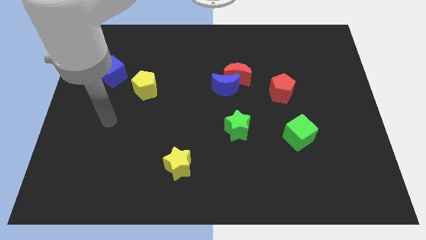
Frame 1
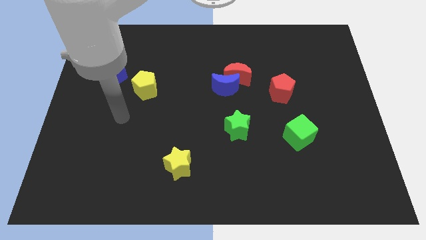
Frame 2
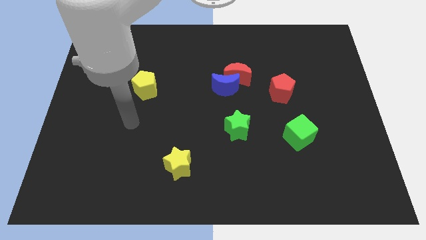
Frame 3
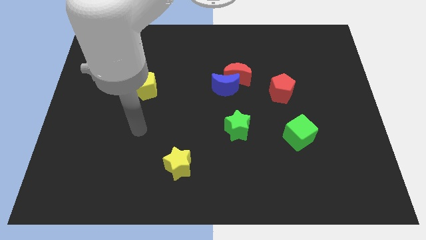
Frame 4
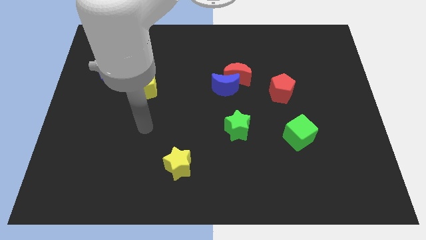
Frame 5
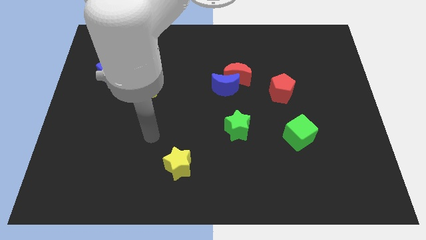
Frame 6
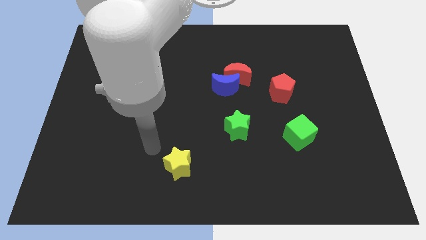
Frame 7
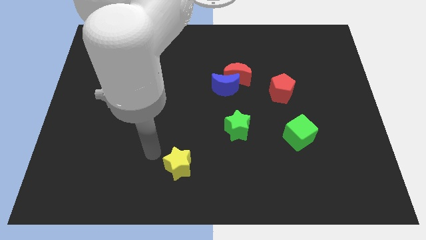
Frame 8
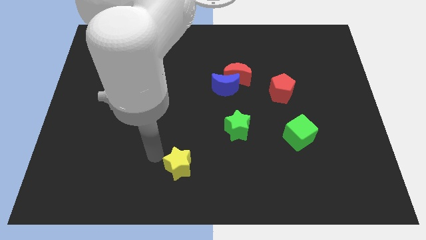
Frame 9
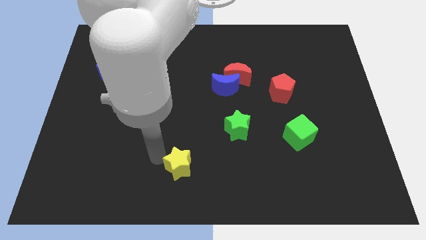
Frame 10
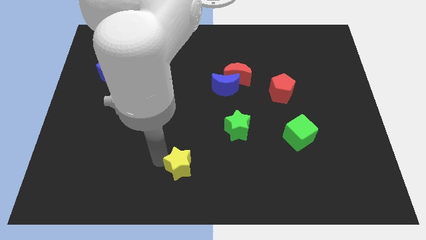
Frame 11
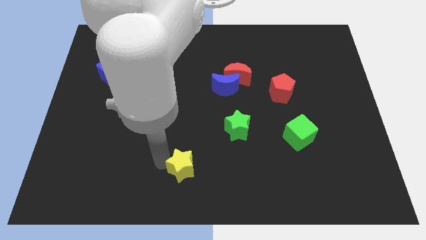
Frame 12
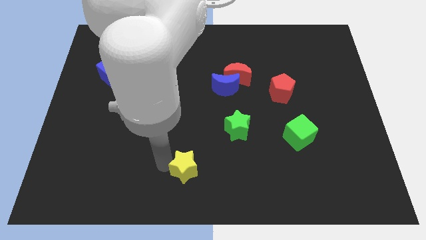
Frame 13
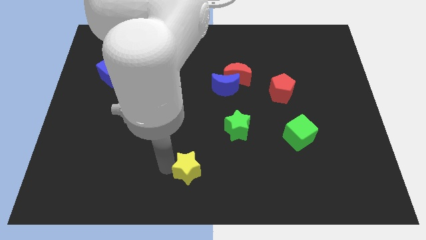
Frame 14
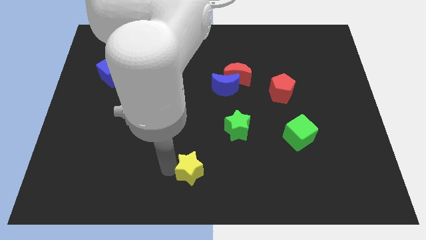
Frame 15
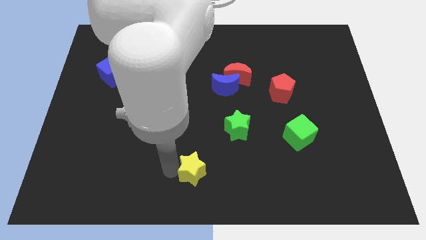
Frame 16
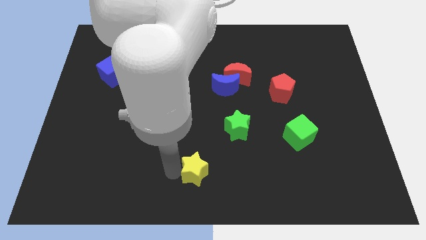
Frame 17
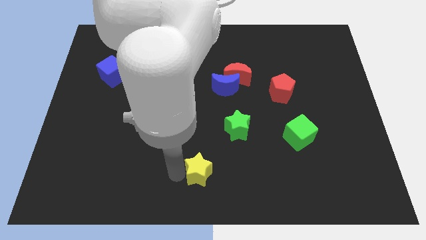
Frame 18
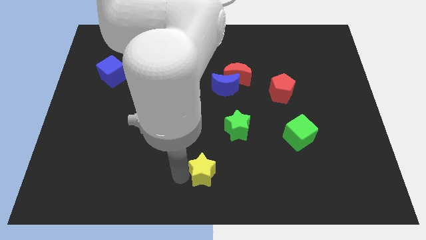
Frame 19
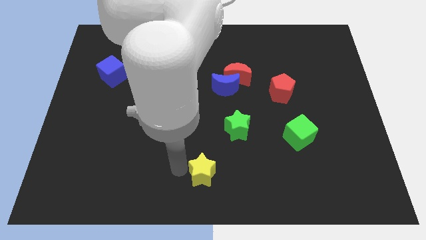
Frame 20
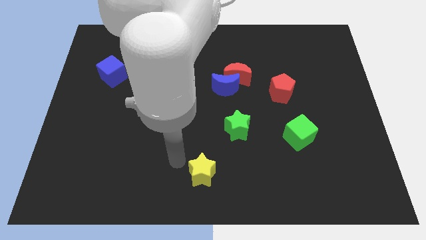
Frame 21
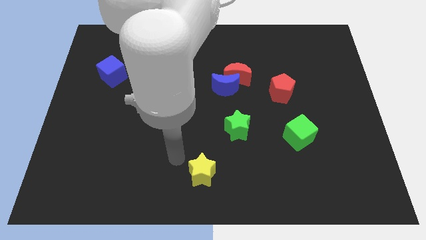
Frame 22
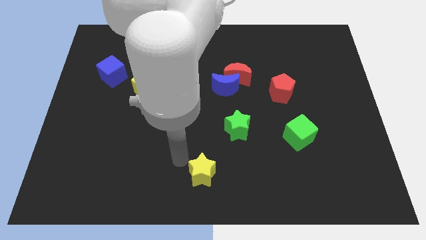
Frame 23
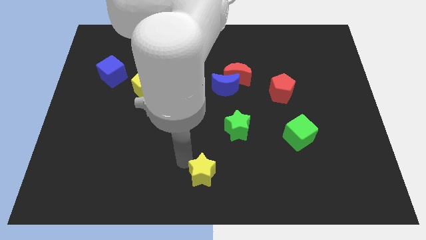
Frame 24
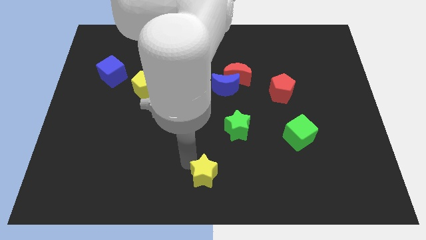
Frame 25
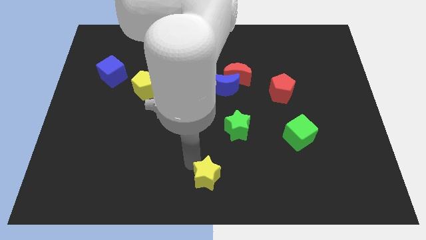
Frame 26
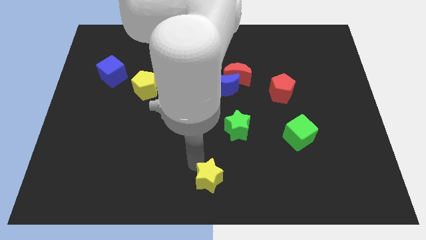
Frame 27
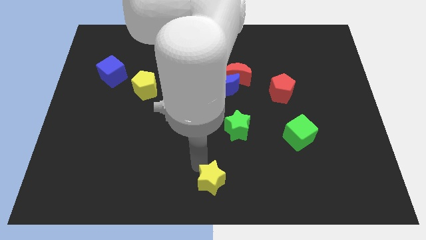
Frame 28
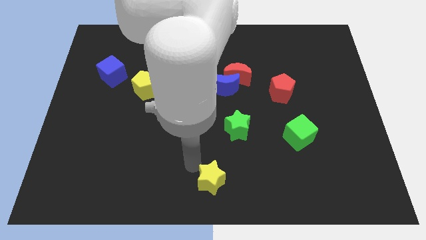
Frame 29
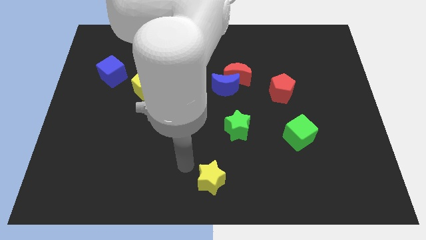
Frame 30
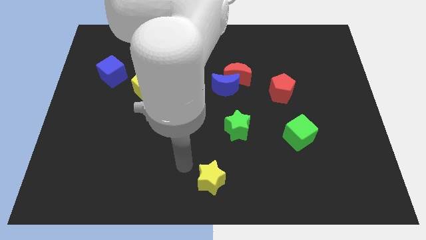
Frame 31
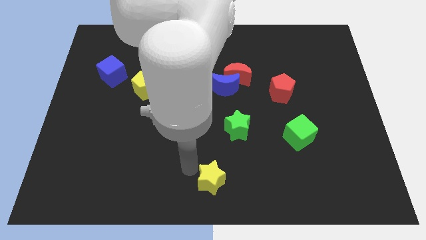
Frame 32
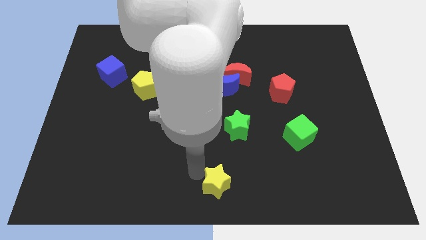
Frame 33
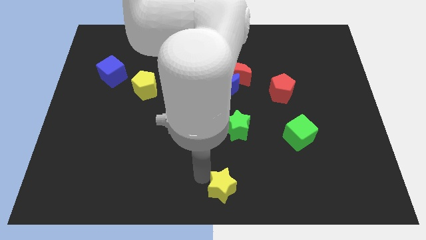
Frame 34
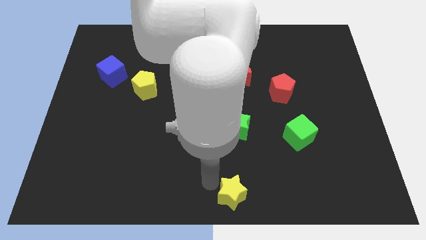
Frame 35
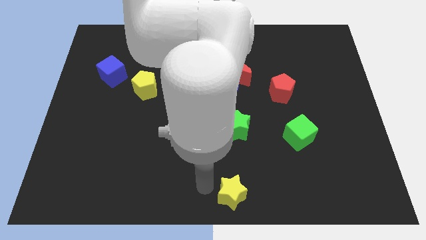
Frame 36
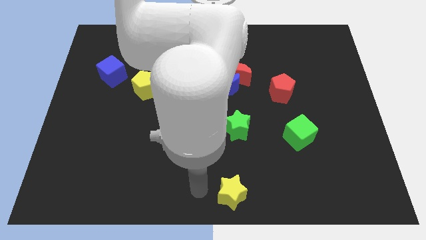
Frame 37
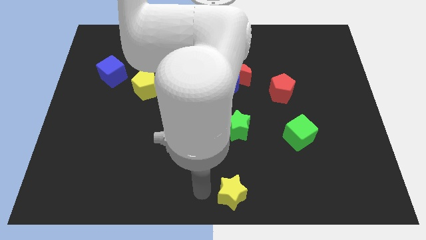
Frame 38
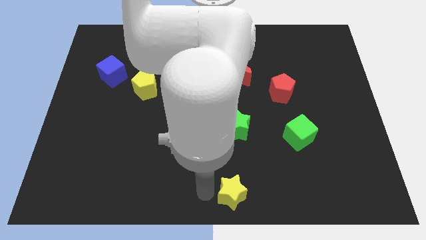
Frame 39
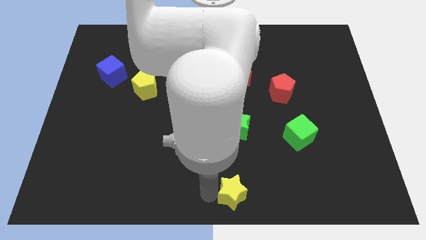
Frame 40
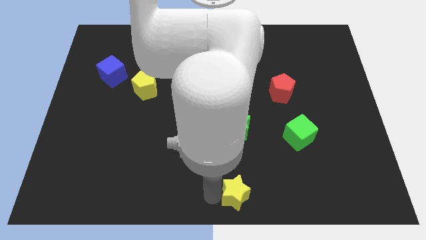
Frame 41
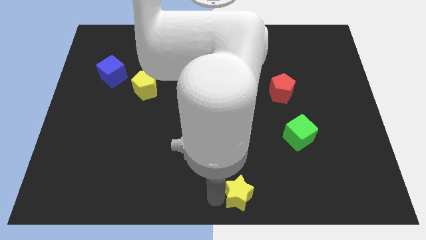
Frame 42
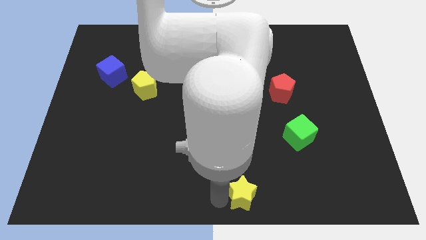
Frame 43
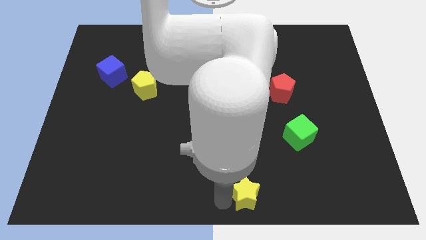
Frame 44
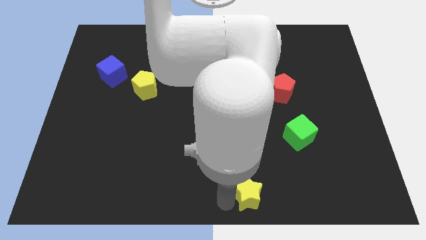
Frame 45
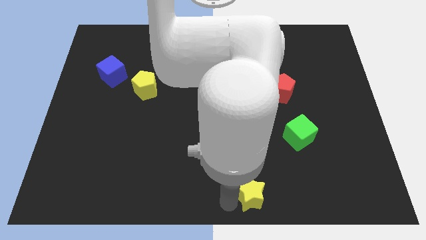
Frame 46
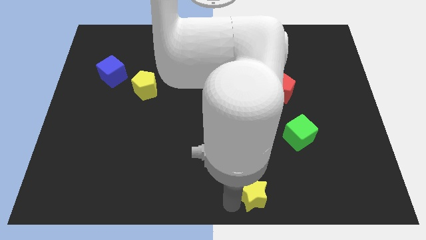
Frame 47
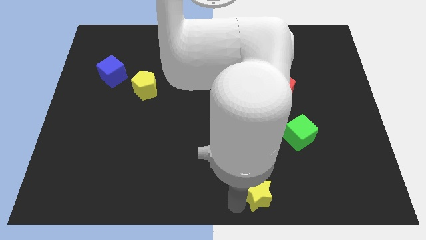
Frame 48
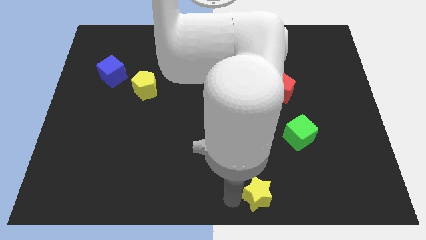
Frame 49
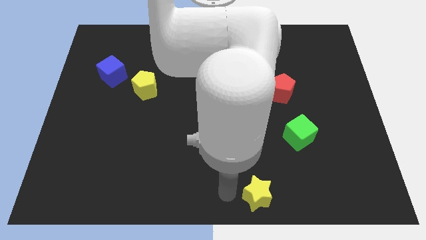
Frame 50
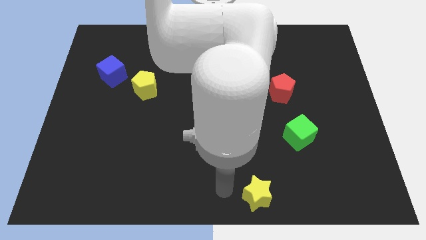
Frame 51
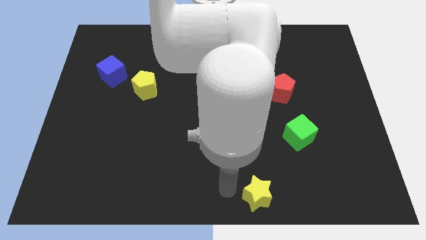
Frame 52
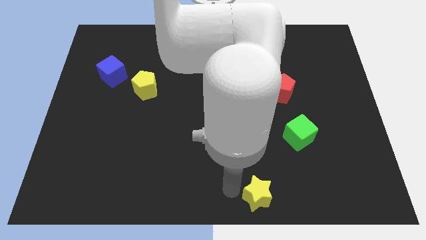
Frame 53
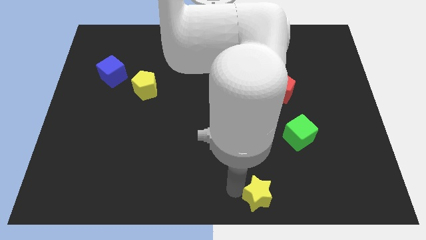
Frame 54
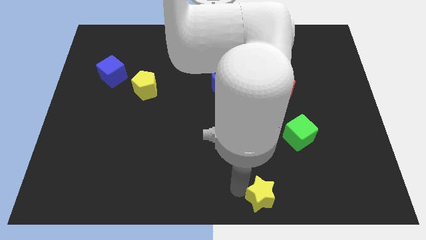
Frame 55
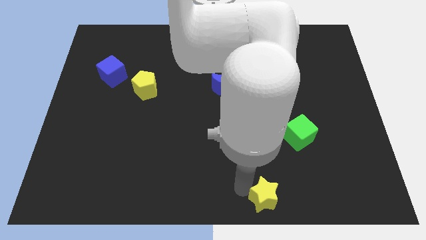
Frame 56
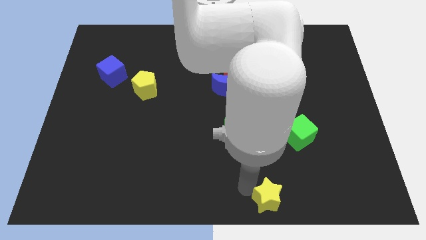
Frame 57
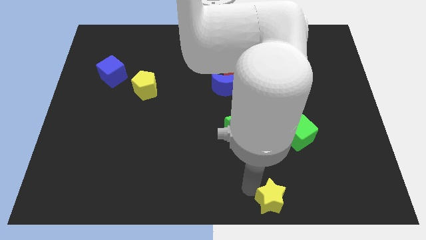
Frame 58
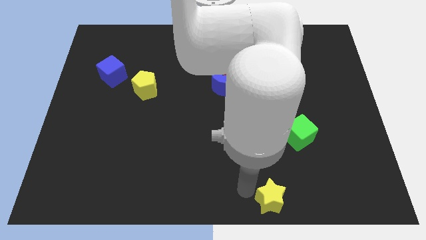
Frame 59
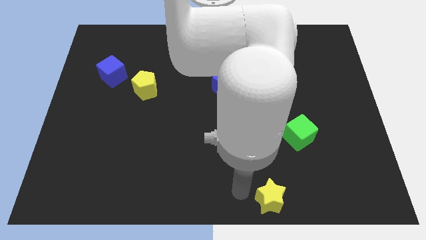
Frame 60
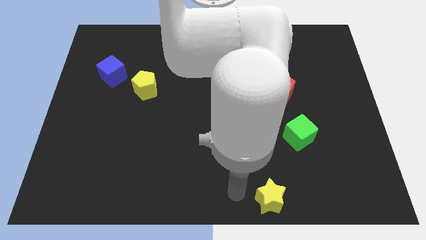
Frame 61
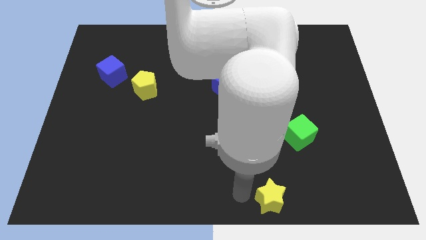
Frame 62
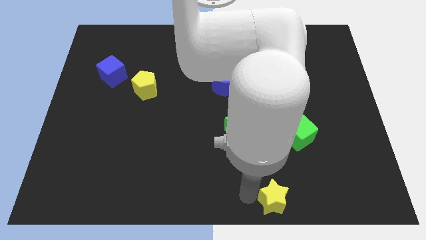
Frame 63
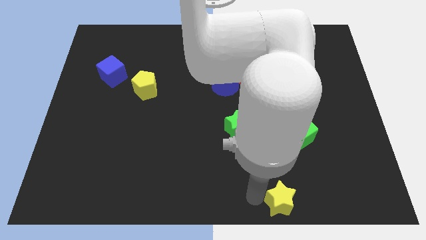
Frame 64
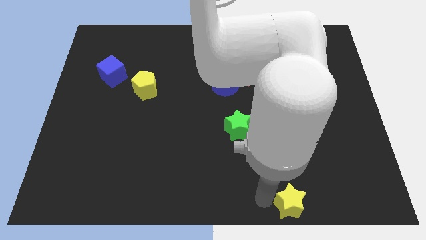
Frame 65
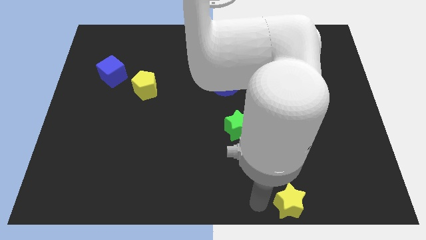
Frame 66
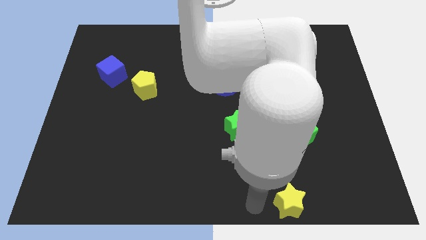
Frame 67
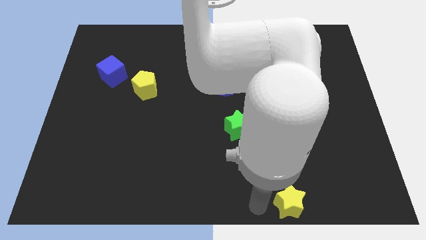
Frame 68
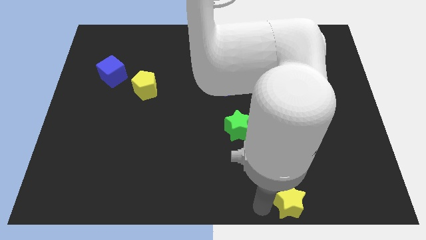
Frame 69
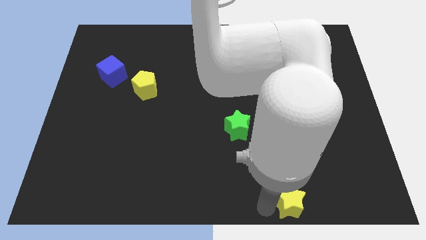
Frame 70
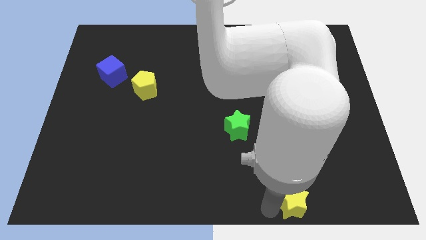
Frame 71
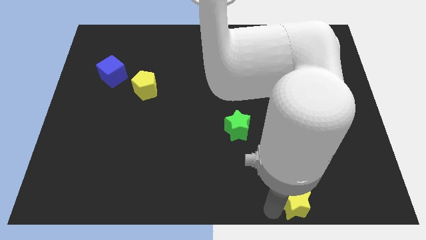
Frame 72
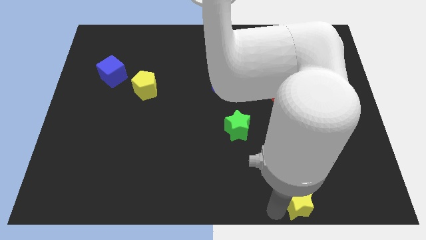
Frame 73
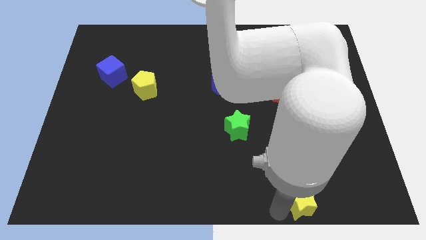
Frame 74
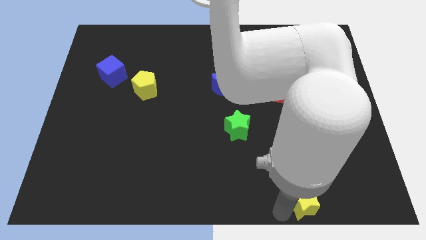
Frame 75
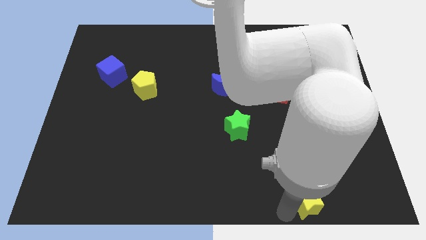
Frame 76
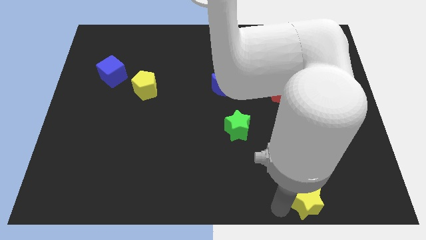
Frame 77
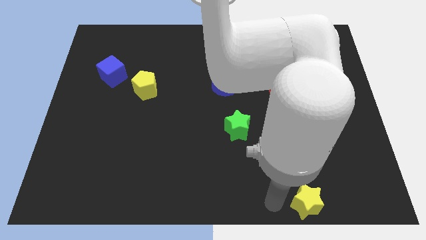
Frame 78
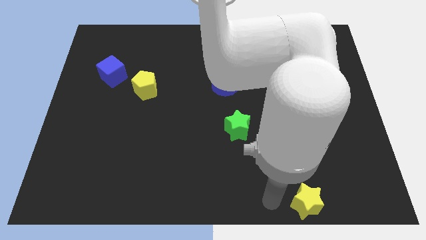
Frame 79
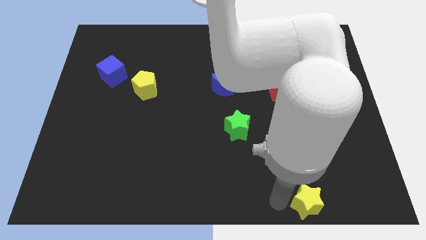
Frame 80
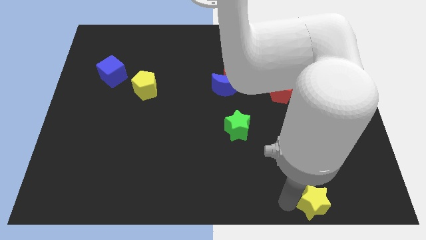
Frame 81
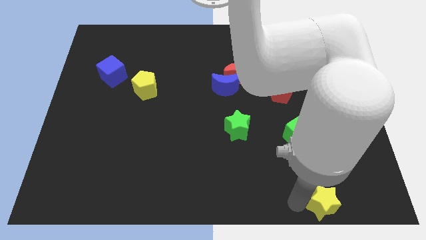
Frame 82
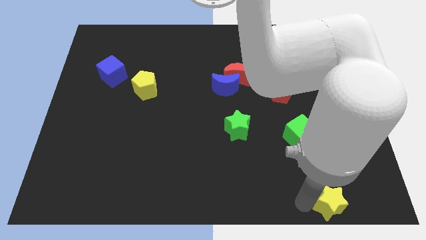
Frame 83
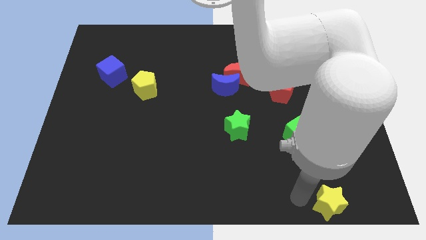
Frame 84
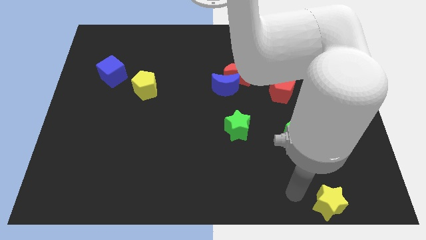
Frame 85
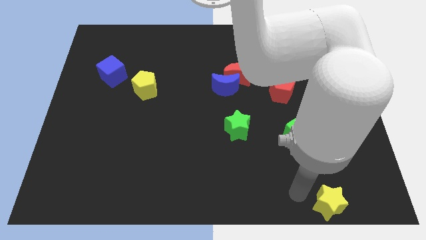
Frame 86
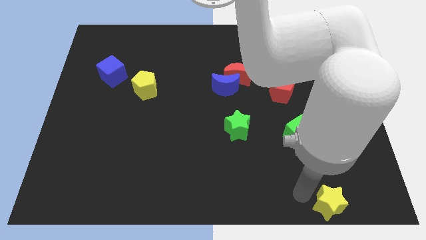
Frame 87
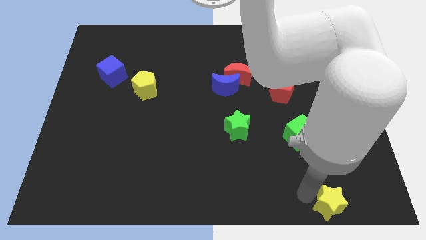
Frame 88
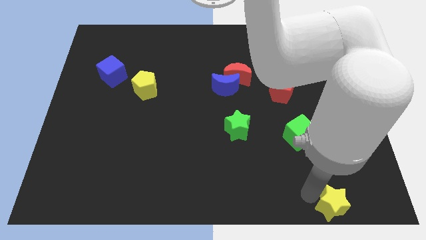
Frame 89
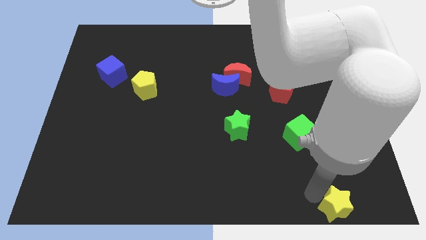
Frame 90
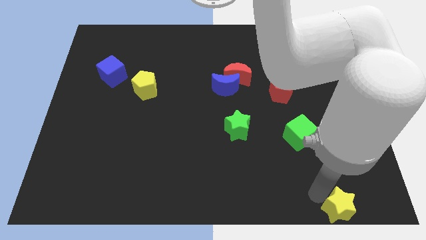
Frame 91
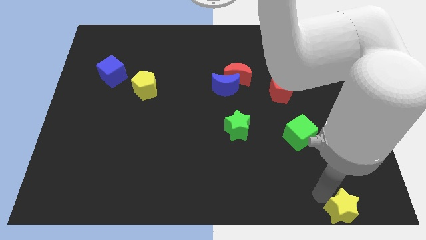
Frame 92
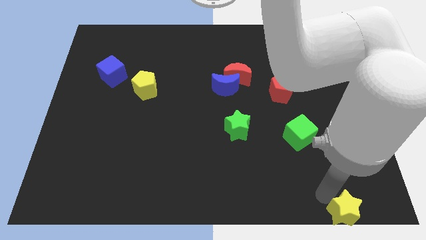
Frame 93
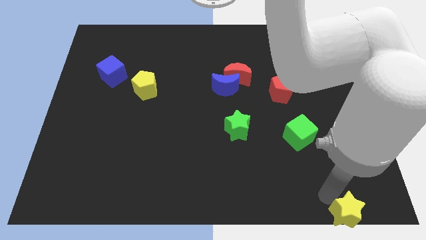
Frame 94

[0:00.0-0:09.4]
move the yellow star to the bottom right corner
